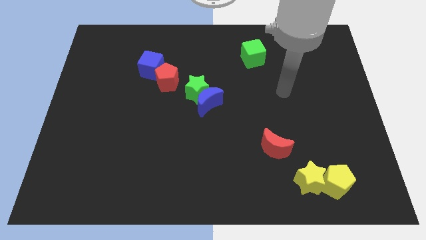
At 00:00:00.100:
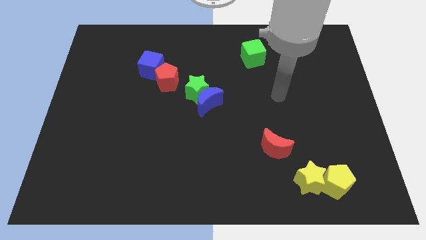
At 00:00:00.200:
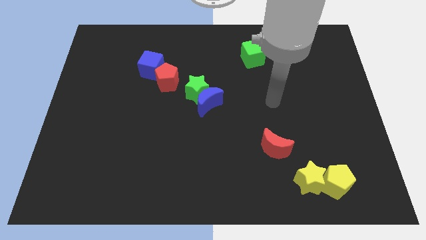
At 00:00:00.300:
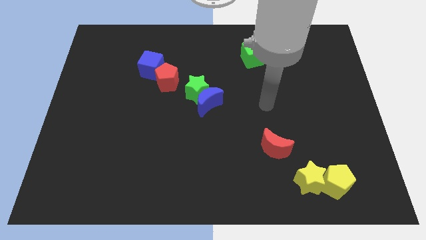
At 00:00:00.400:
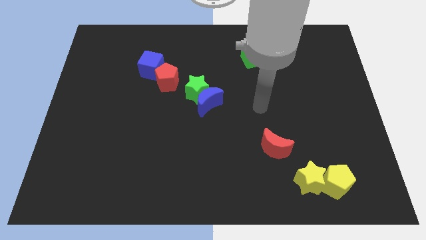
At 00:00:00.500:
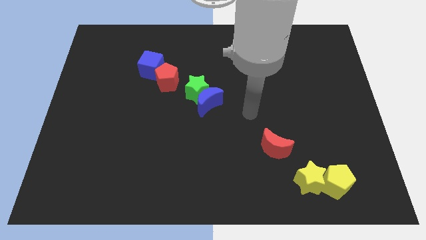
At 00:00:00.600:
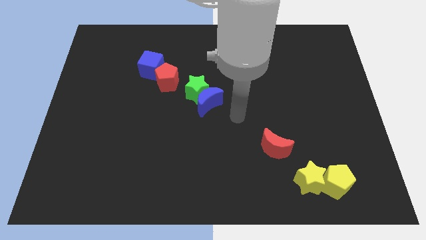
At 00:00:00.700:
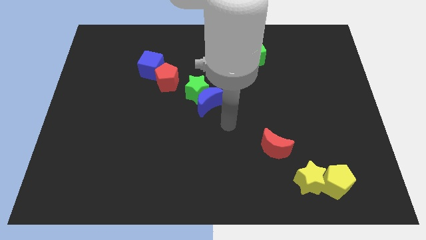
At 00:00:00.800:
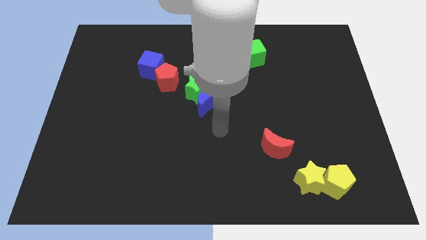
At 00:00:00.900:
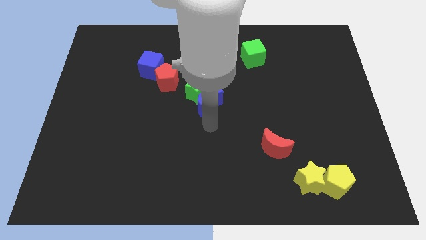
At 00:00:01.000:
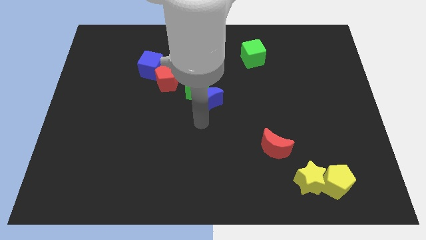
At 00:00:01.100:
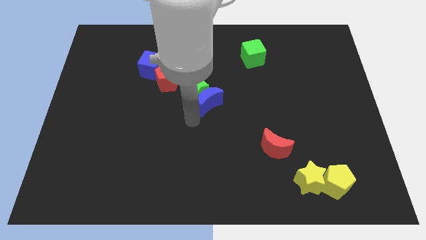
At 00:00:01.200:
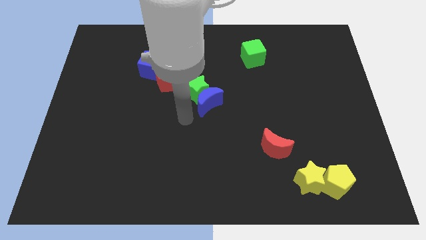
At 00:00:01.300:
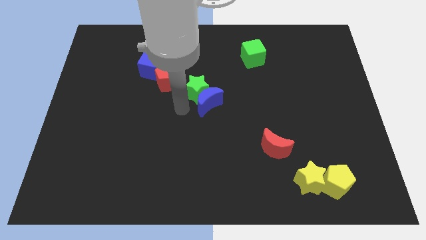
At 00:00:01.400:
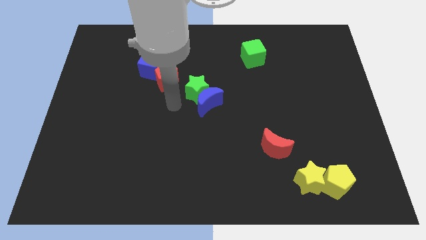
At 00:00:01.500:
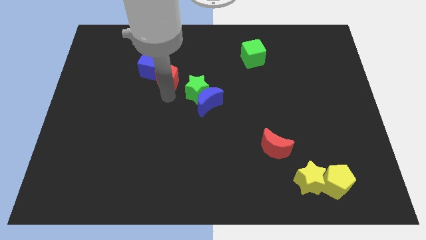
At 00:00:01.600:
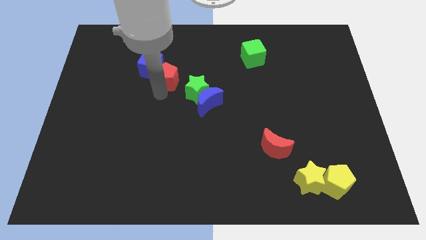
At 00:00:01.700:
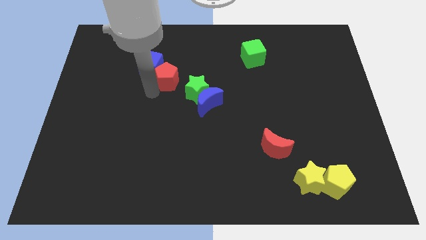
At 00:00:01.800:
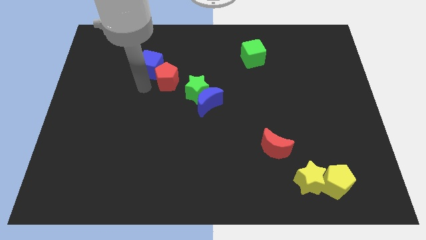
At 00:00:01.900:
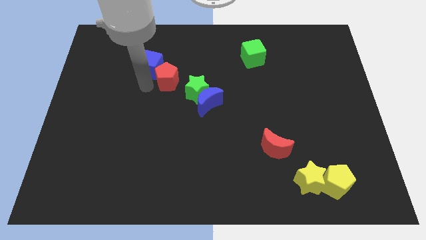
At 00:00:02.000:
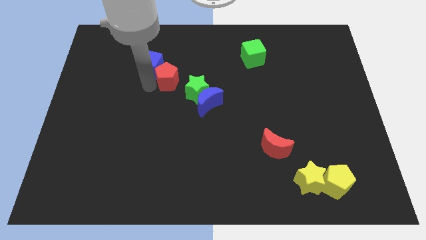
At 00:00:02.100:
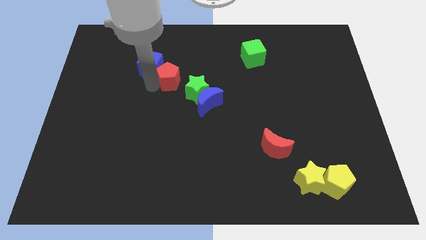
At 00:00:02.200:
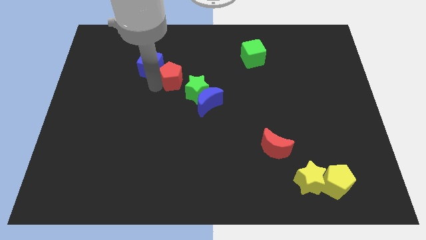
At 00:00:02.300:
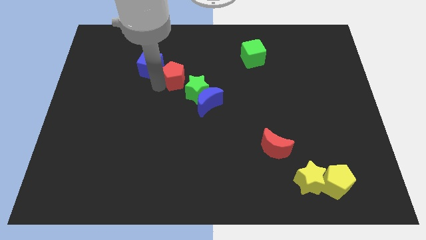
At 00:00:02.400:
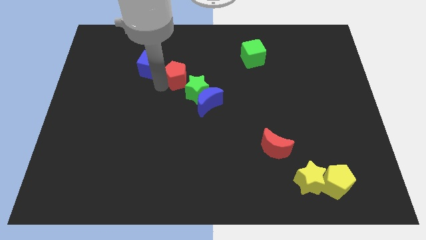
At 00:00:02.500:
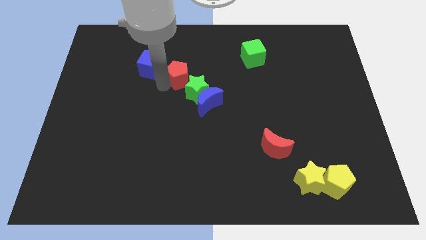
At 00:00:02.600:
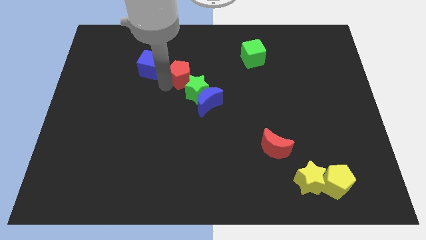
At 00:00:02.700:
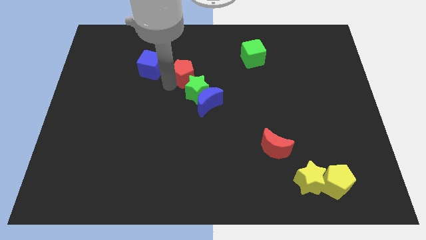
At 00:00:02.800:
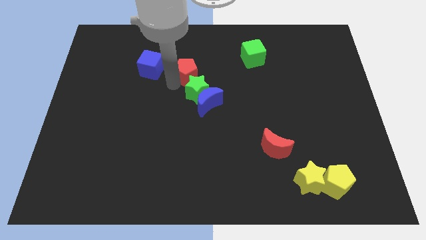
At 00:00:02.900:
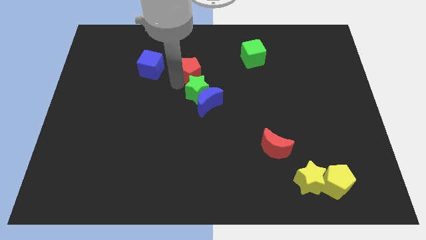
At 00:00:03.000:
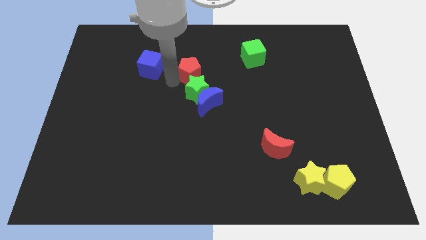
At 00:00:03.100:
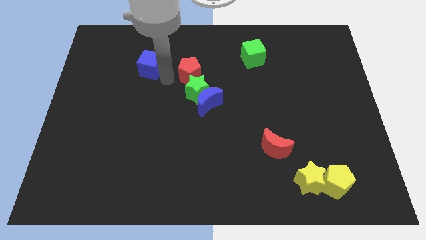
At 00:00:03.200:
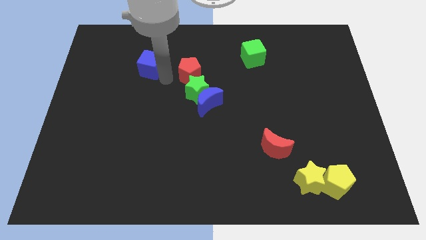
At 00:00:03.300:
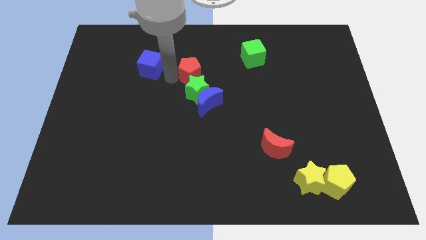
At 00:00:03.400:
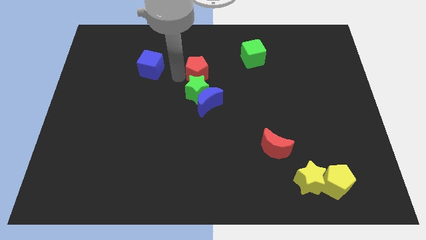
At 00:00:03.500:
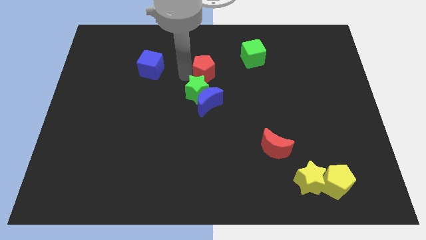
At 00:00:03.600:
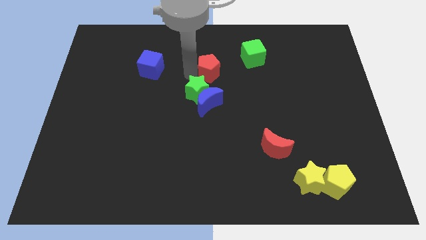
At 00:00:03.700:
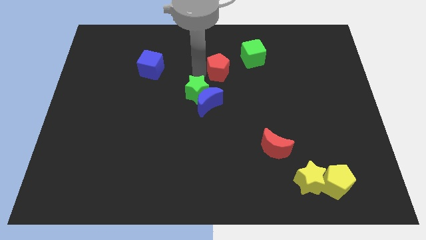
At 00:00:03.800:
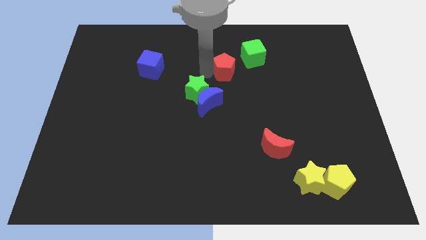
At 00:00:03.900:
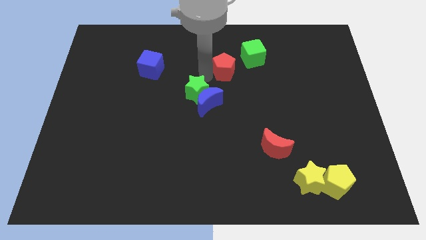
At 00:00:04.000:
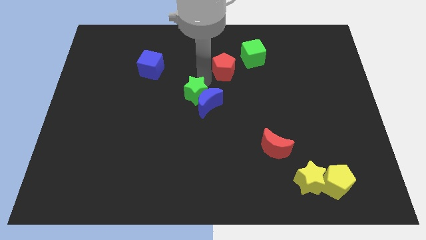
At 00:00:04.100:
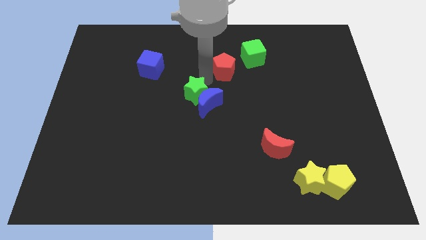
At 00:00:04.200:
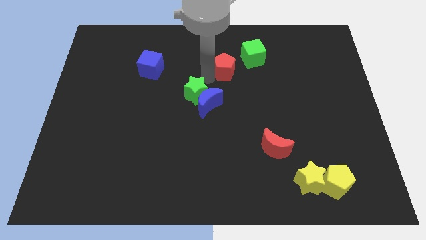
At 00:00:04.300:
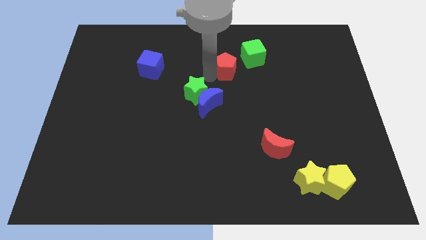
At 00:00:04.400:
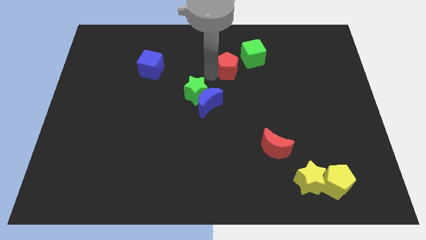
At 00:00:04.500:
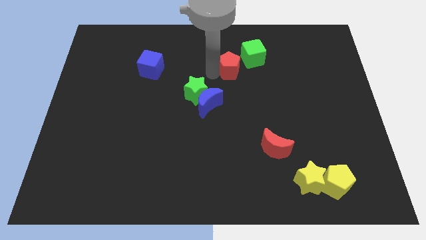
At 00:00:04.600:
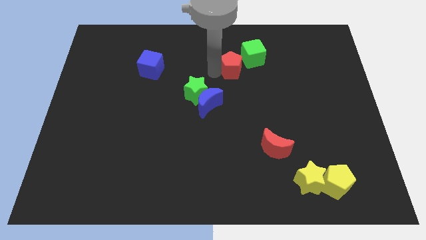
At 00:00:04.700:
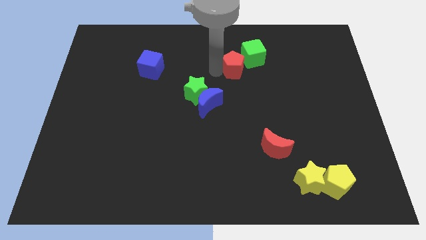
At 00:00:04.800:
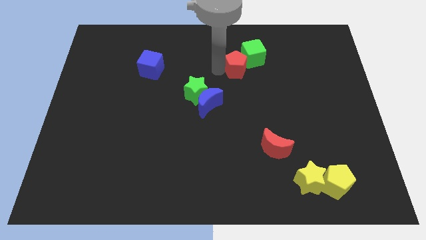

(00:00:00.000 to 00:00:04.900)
push the red pentagon next to the green cube

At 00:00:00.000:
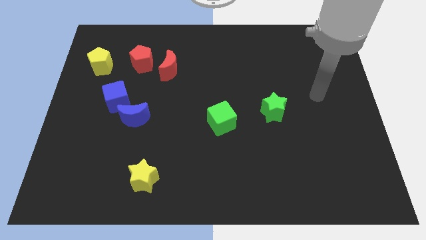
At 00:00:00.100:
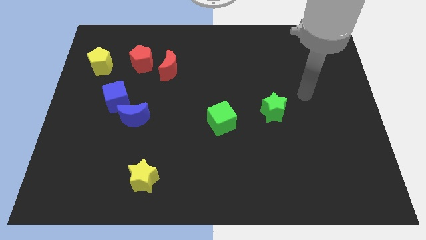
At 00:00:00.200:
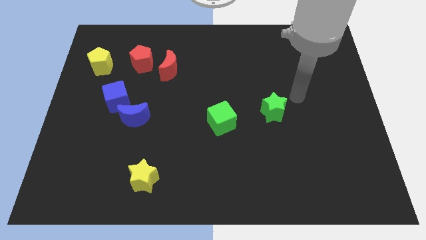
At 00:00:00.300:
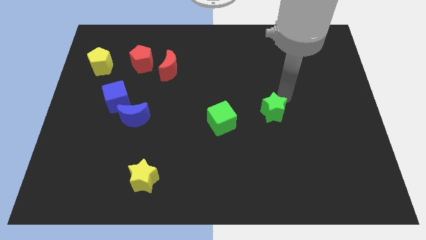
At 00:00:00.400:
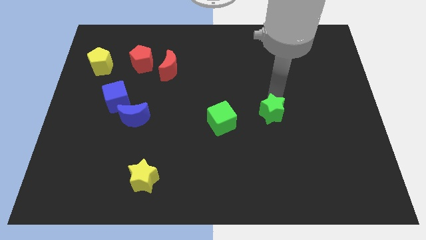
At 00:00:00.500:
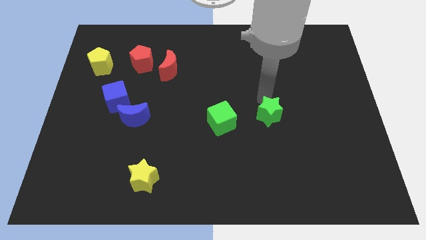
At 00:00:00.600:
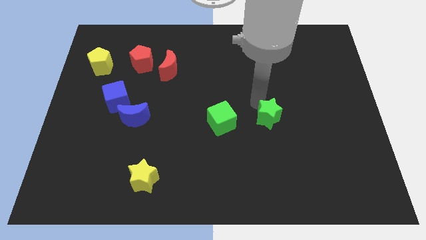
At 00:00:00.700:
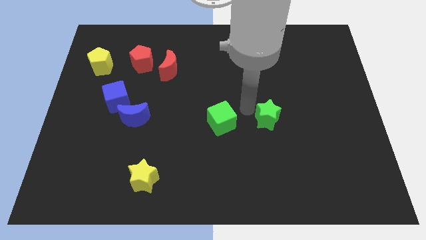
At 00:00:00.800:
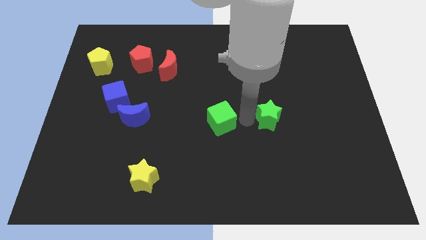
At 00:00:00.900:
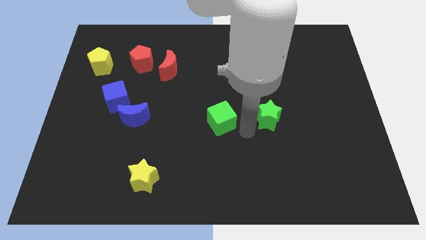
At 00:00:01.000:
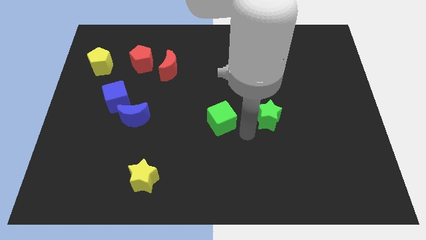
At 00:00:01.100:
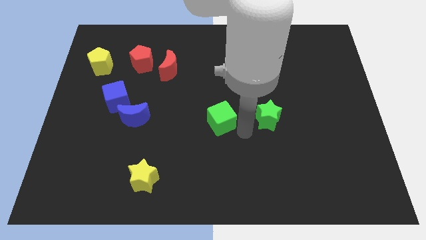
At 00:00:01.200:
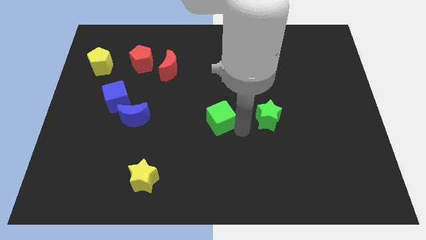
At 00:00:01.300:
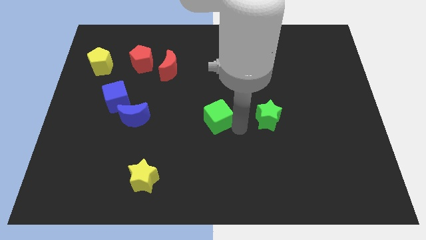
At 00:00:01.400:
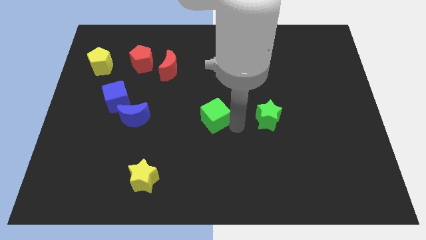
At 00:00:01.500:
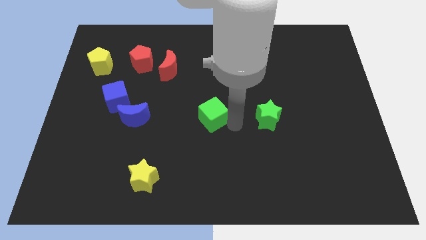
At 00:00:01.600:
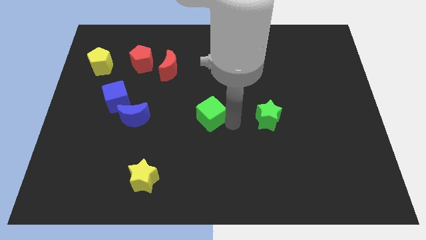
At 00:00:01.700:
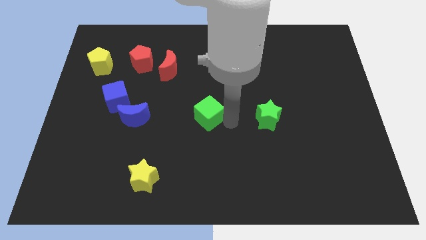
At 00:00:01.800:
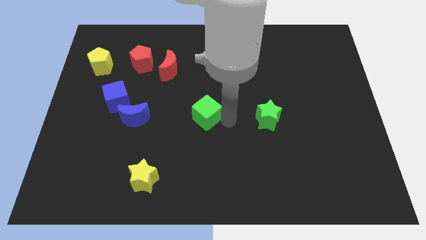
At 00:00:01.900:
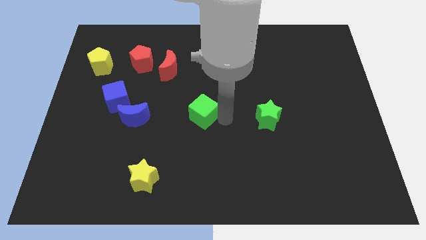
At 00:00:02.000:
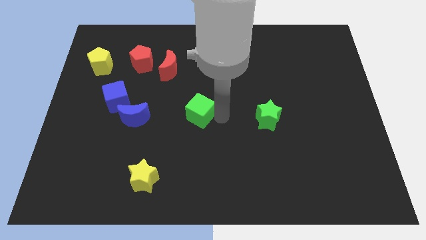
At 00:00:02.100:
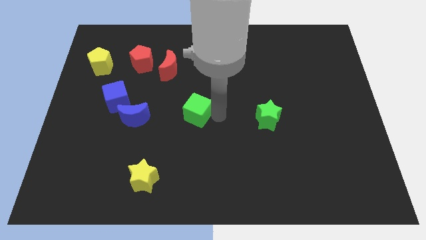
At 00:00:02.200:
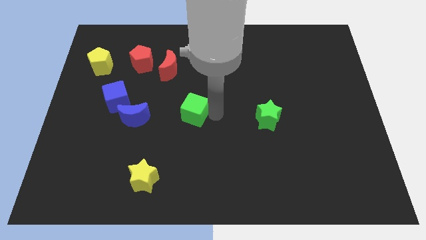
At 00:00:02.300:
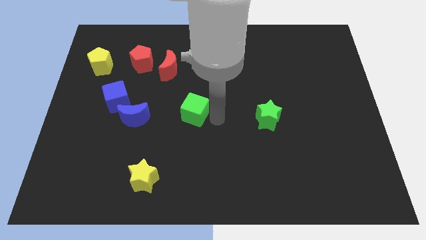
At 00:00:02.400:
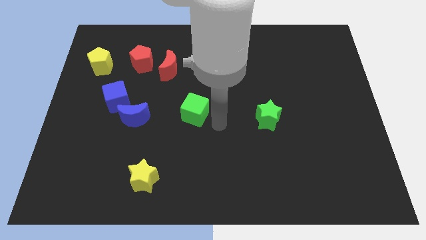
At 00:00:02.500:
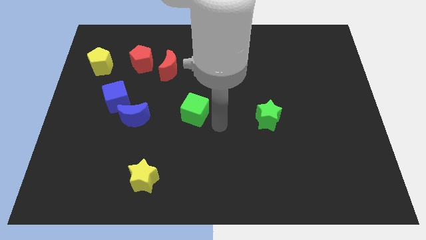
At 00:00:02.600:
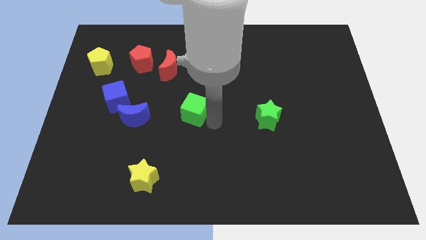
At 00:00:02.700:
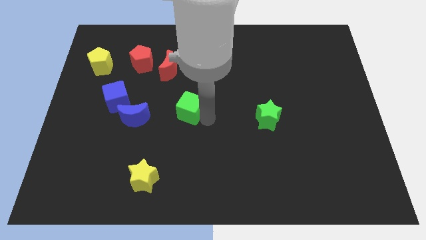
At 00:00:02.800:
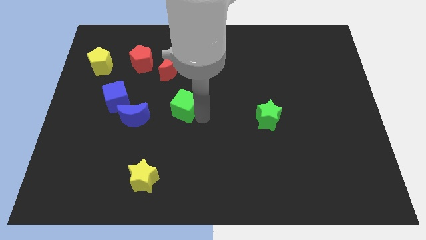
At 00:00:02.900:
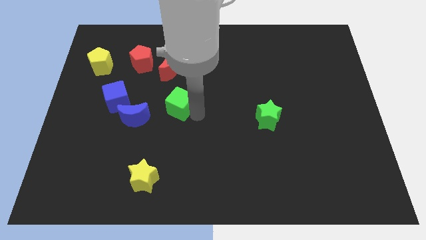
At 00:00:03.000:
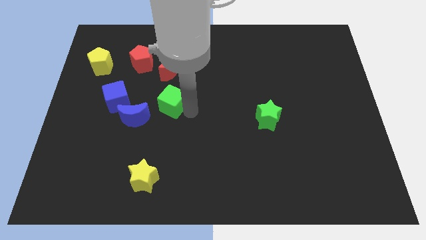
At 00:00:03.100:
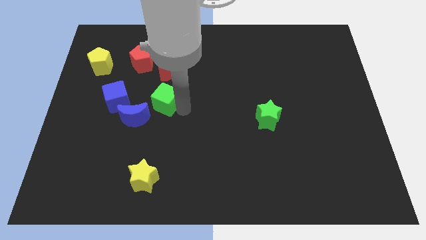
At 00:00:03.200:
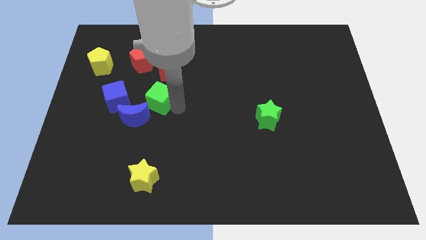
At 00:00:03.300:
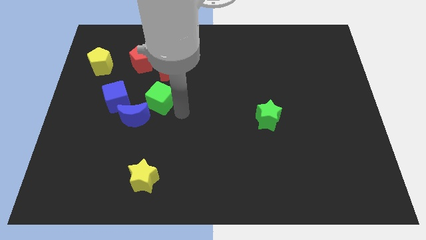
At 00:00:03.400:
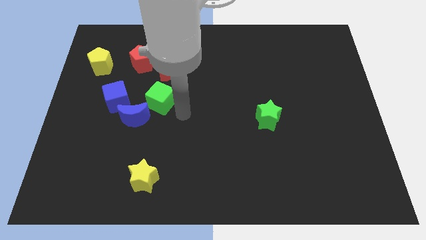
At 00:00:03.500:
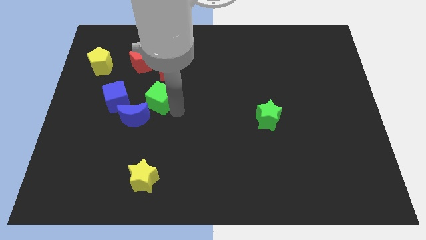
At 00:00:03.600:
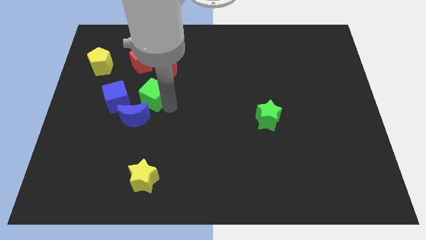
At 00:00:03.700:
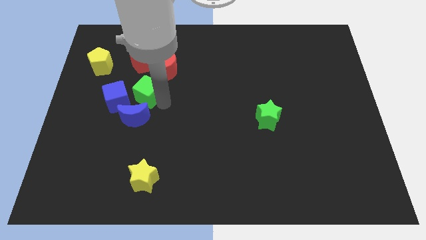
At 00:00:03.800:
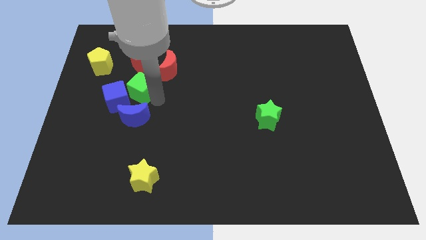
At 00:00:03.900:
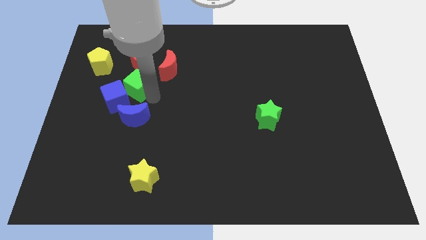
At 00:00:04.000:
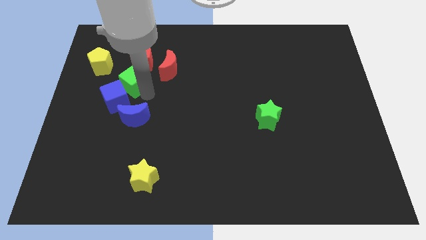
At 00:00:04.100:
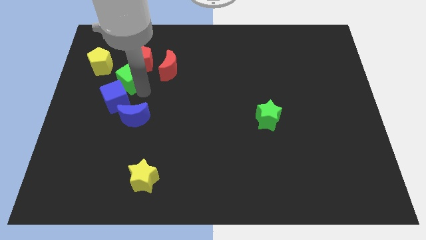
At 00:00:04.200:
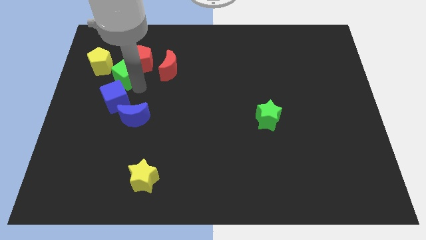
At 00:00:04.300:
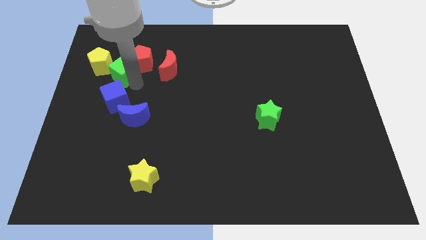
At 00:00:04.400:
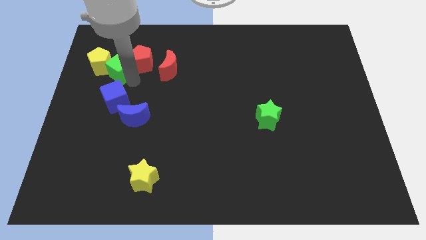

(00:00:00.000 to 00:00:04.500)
move the green cube next to the yellow pentagon
